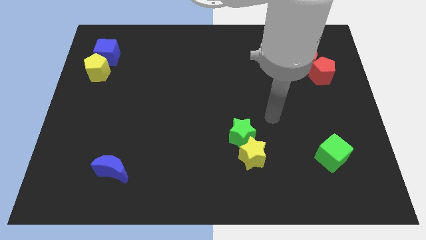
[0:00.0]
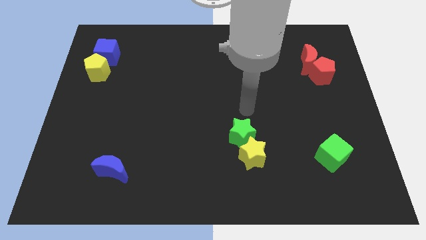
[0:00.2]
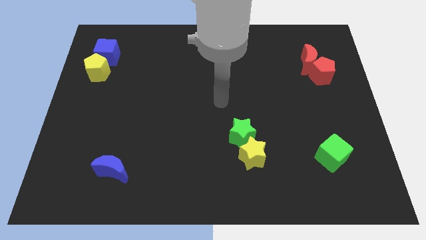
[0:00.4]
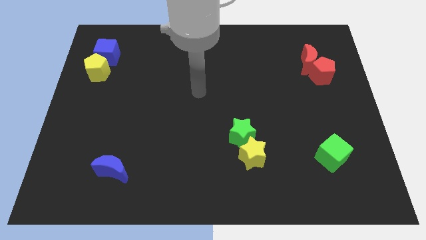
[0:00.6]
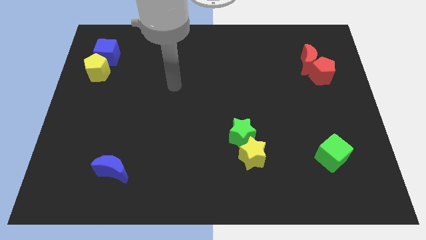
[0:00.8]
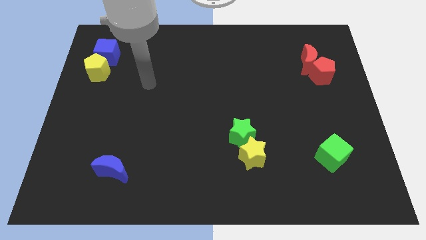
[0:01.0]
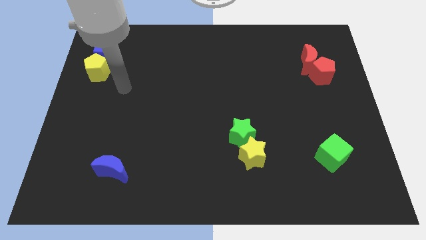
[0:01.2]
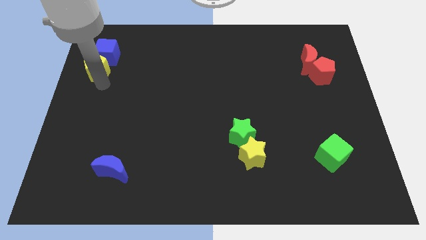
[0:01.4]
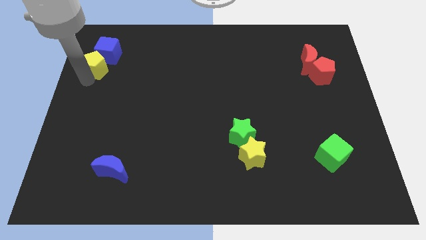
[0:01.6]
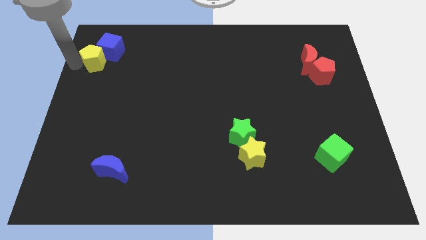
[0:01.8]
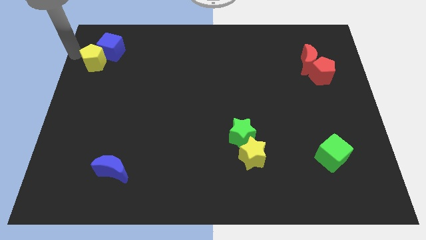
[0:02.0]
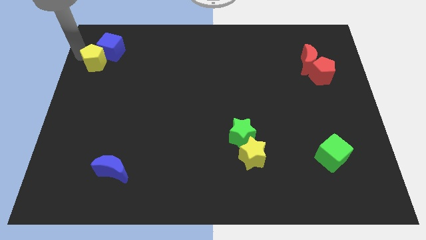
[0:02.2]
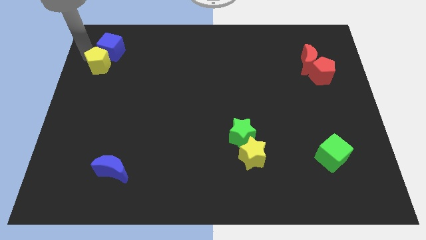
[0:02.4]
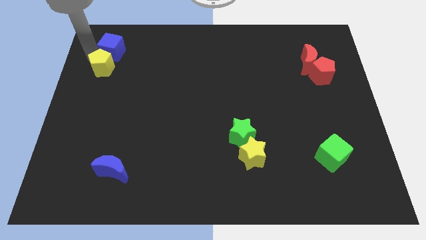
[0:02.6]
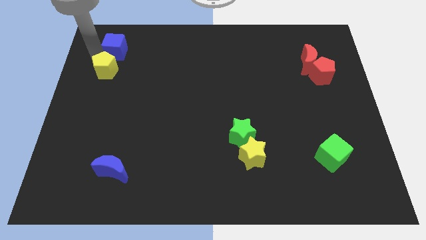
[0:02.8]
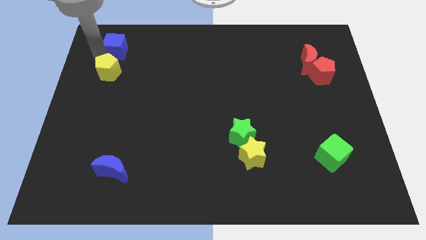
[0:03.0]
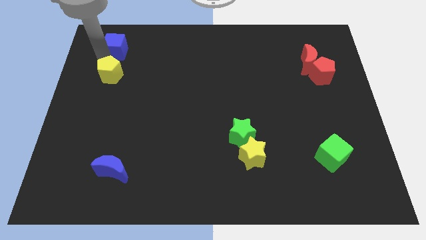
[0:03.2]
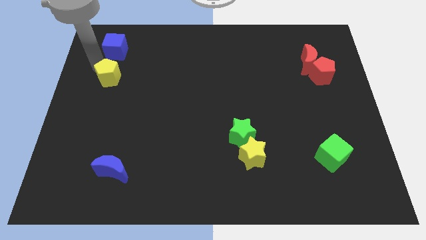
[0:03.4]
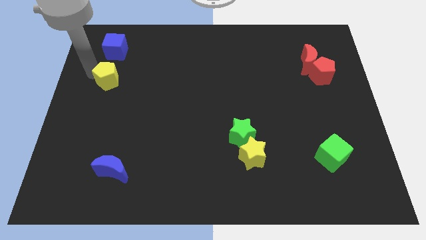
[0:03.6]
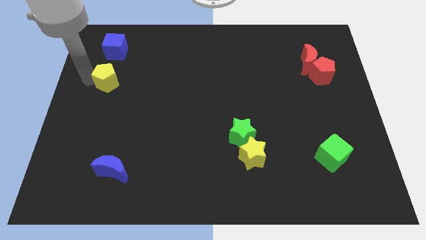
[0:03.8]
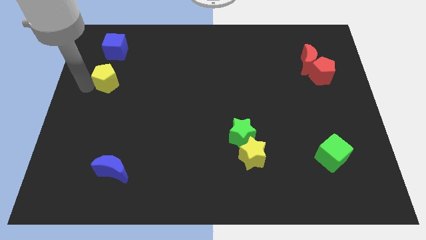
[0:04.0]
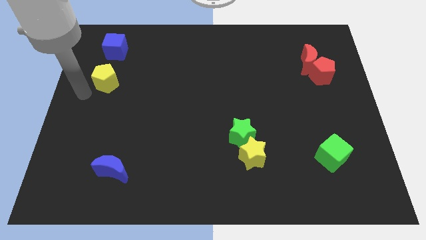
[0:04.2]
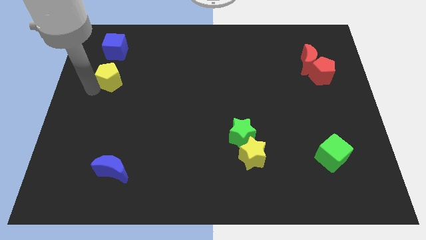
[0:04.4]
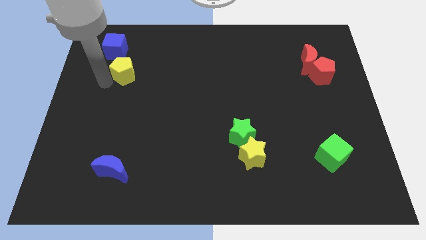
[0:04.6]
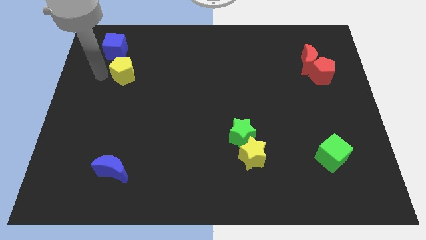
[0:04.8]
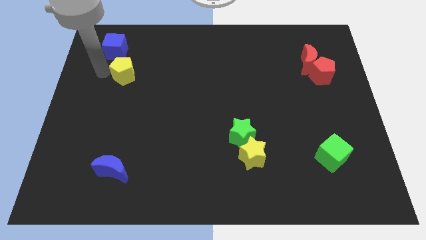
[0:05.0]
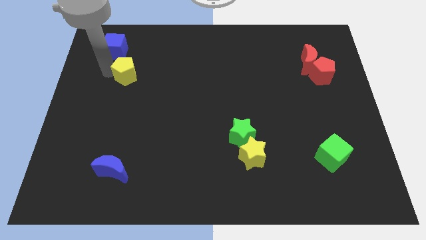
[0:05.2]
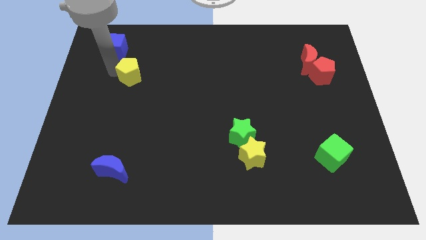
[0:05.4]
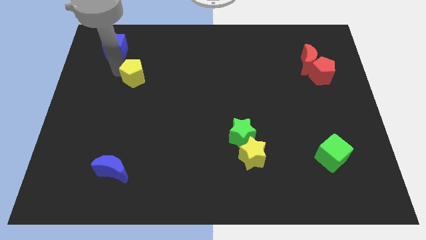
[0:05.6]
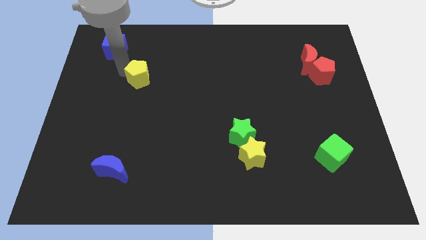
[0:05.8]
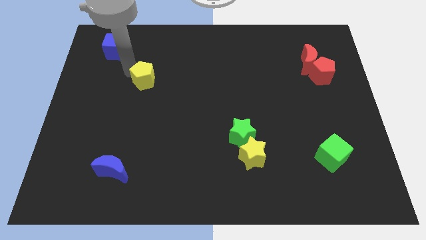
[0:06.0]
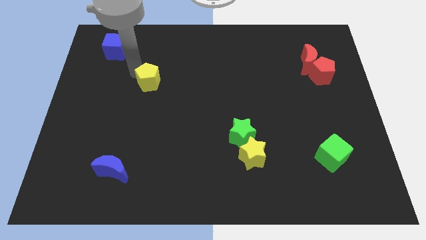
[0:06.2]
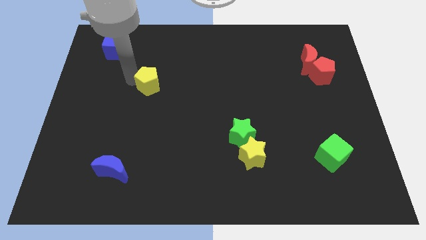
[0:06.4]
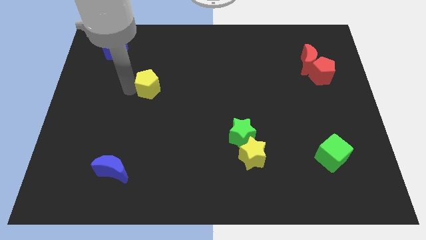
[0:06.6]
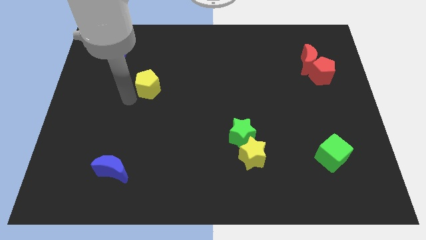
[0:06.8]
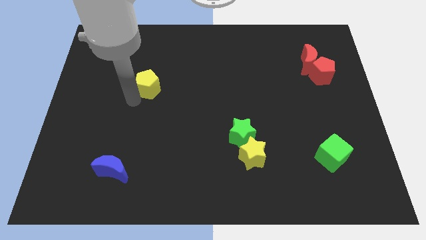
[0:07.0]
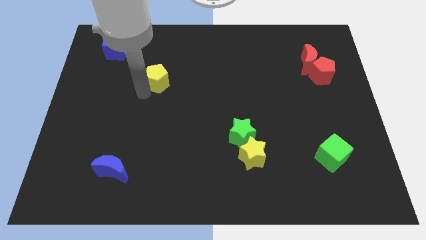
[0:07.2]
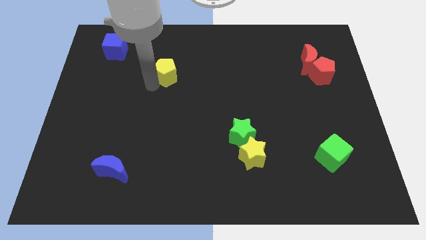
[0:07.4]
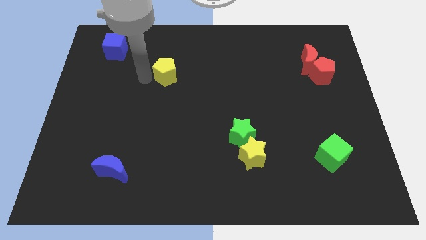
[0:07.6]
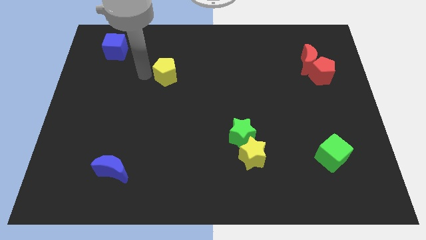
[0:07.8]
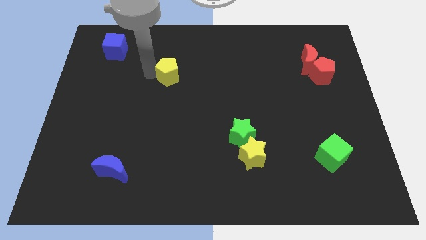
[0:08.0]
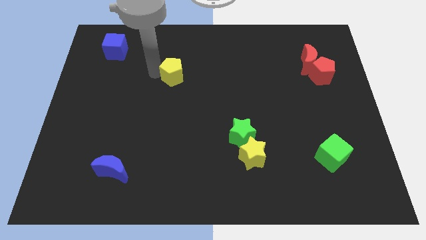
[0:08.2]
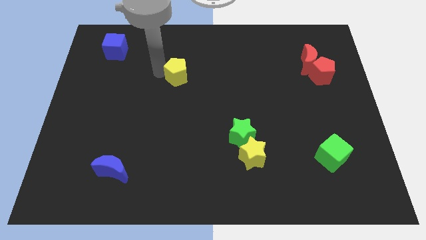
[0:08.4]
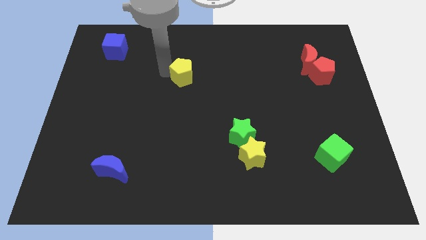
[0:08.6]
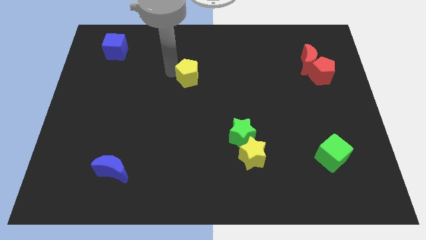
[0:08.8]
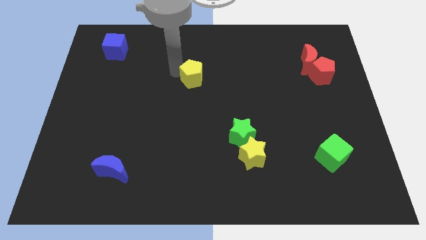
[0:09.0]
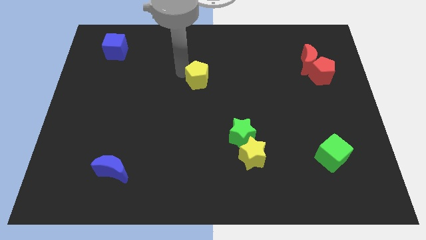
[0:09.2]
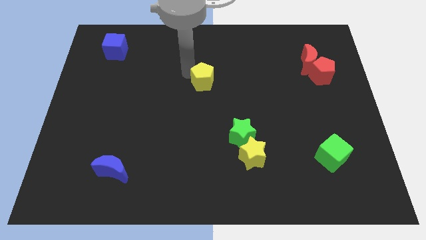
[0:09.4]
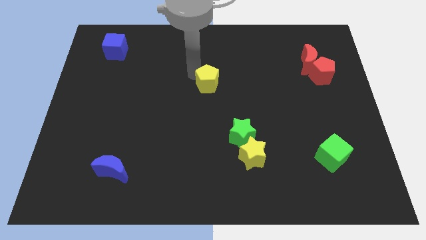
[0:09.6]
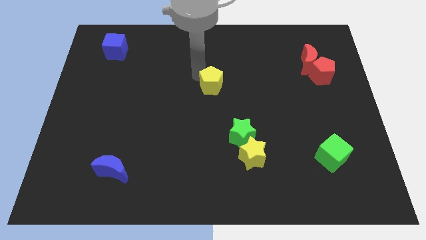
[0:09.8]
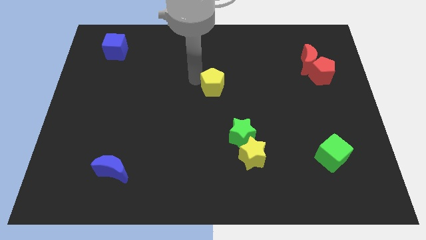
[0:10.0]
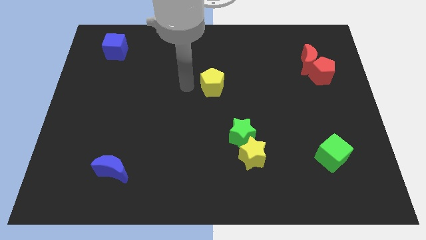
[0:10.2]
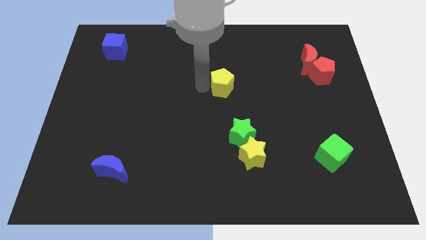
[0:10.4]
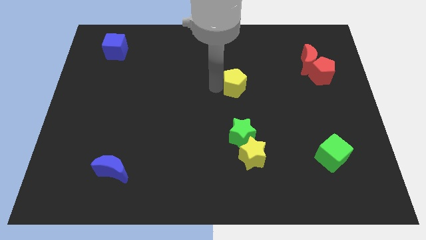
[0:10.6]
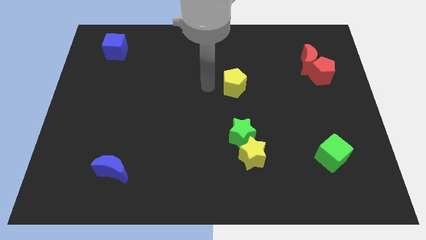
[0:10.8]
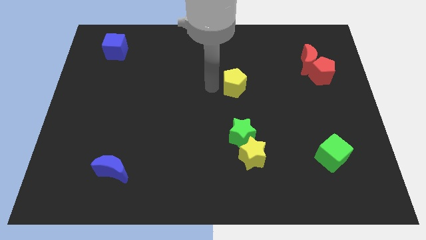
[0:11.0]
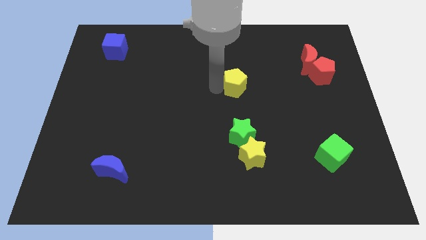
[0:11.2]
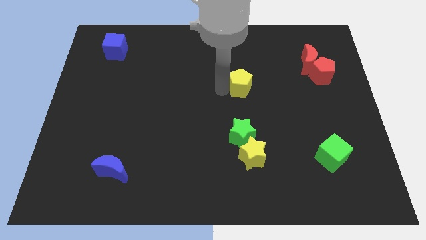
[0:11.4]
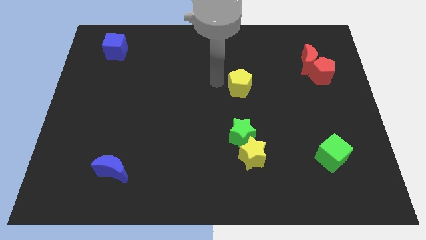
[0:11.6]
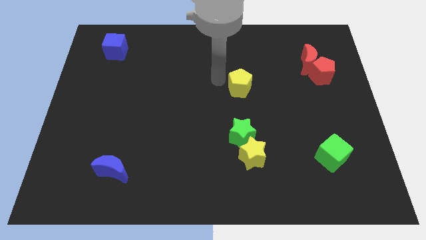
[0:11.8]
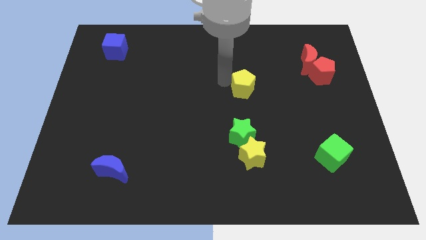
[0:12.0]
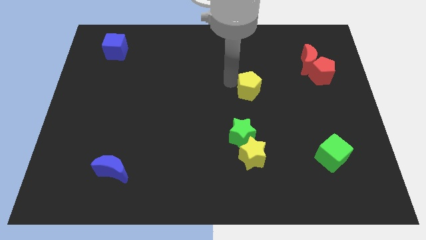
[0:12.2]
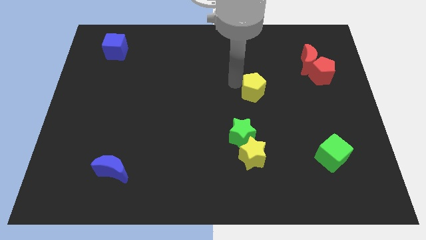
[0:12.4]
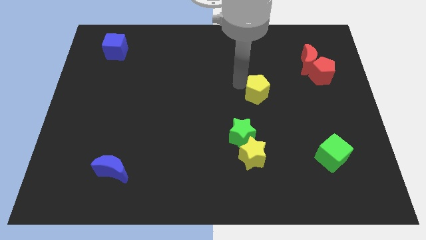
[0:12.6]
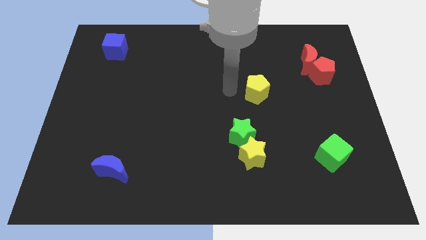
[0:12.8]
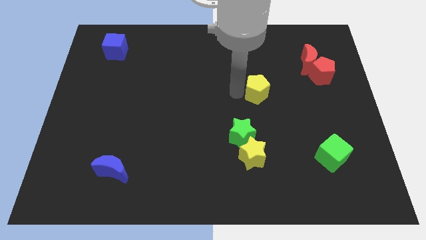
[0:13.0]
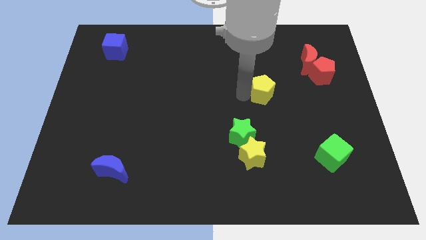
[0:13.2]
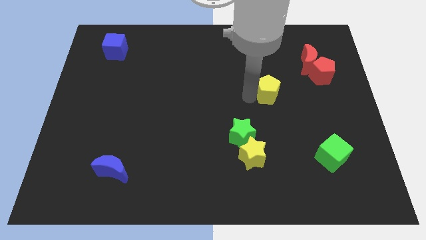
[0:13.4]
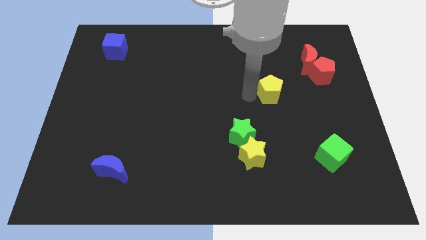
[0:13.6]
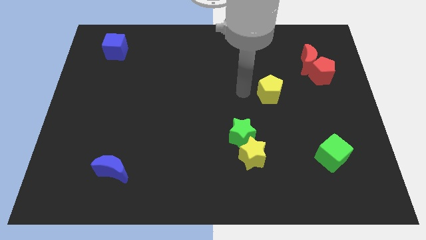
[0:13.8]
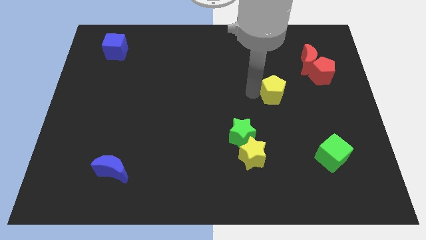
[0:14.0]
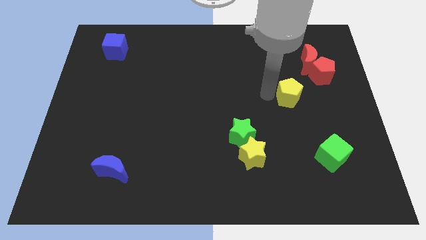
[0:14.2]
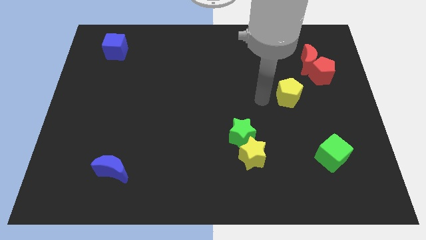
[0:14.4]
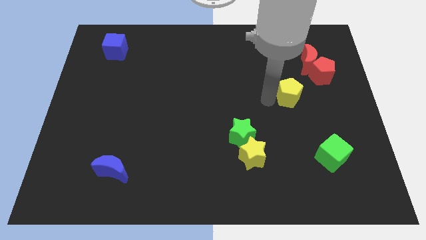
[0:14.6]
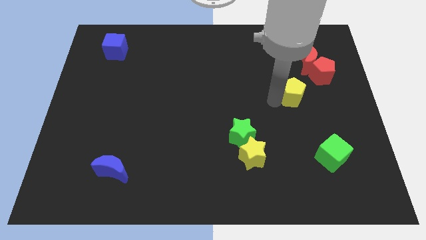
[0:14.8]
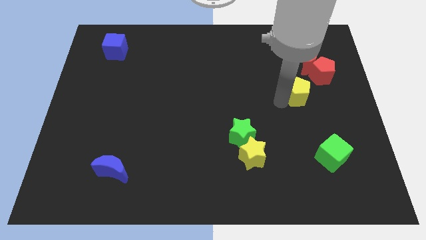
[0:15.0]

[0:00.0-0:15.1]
slide the yellow pentagon below the red moon
